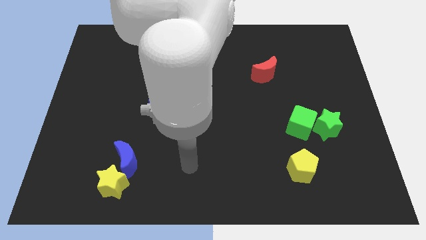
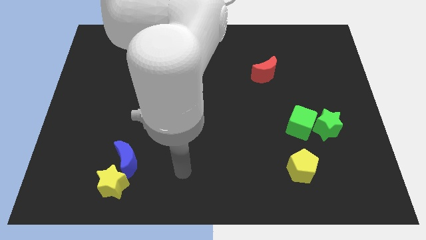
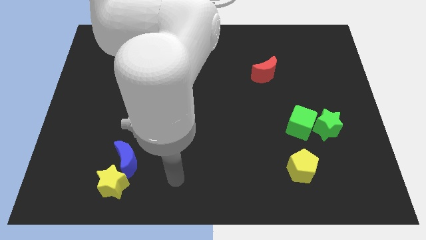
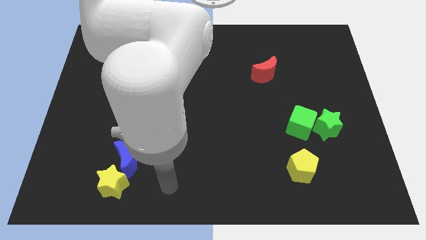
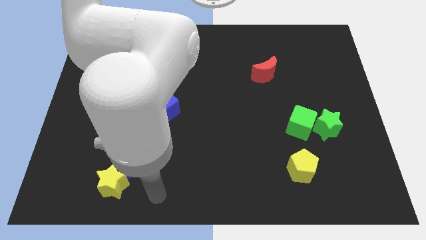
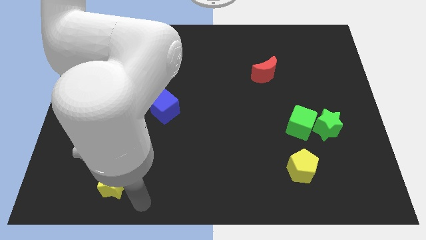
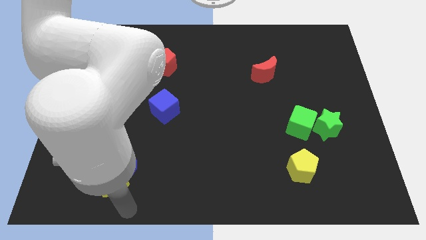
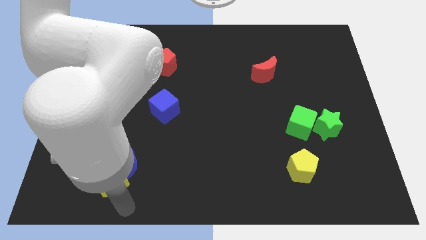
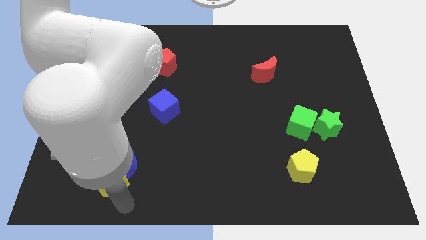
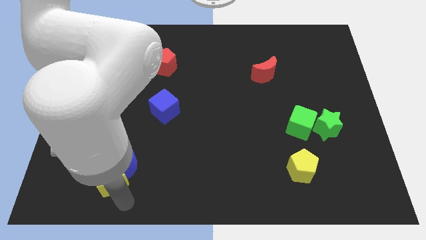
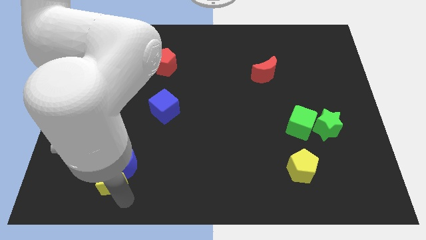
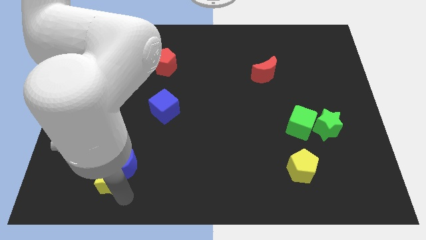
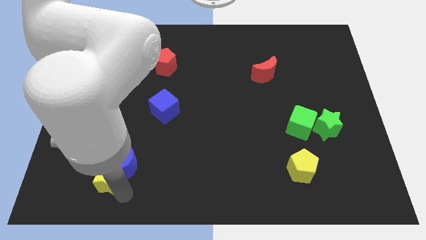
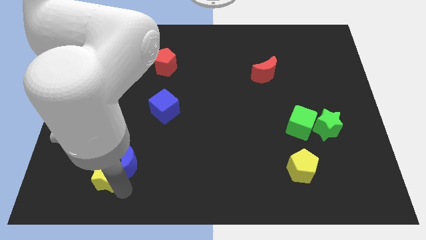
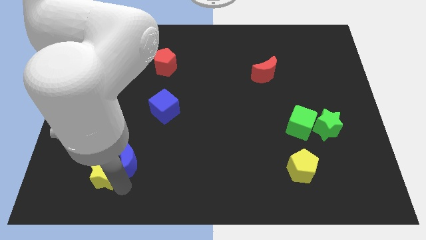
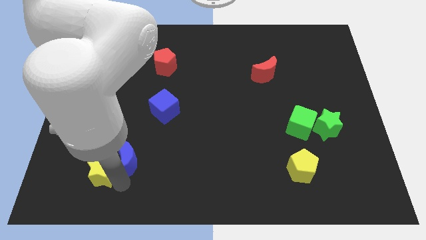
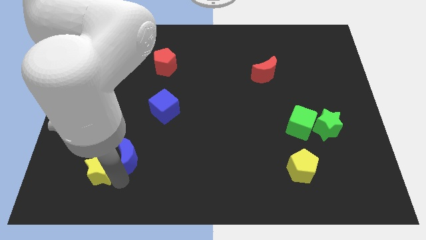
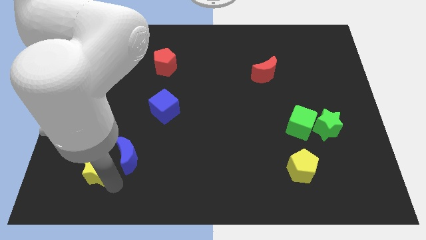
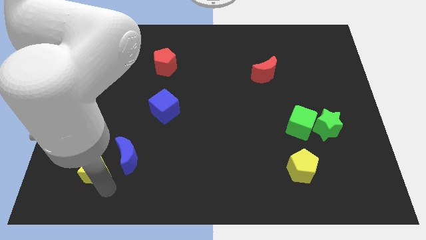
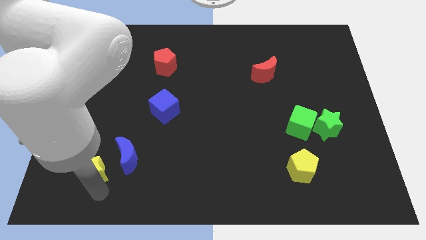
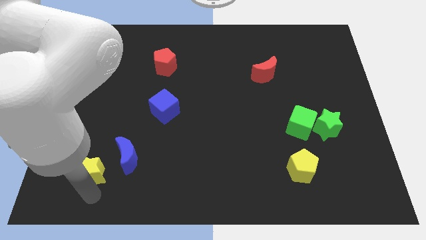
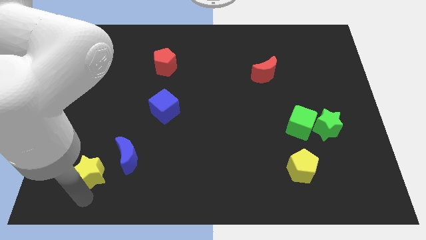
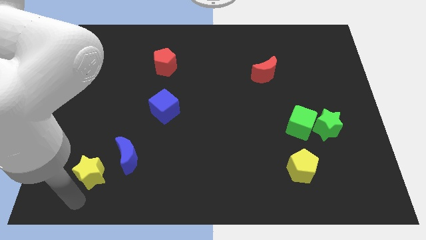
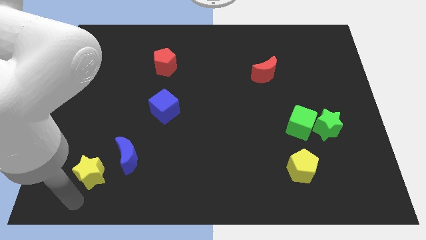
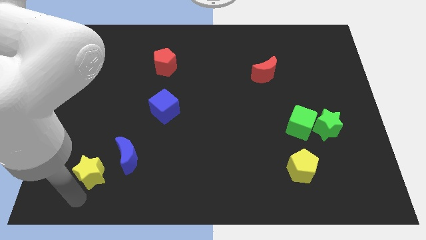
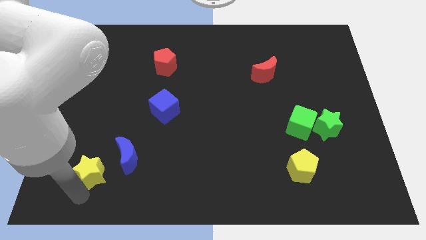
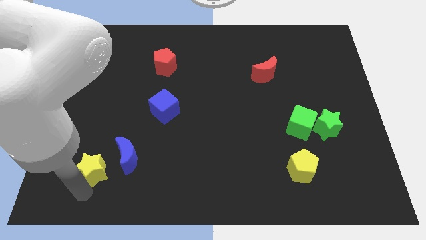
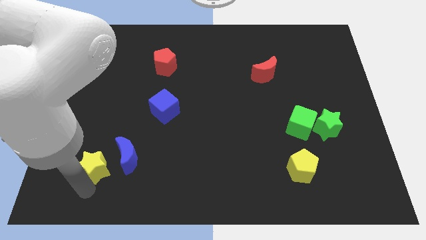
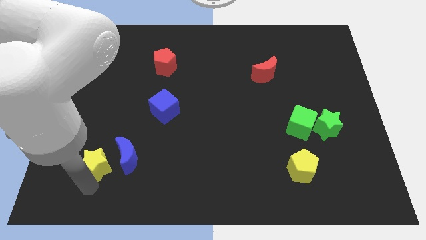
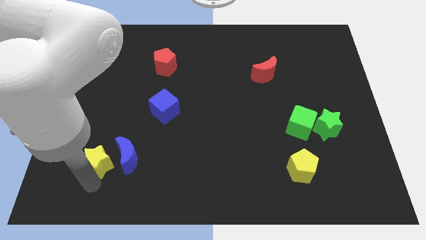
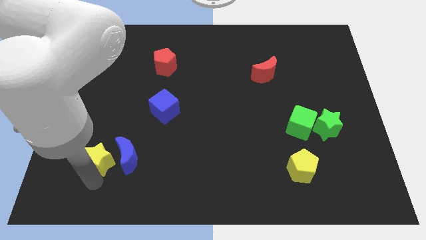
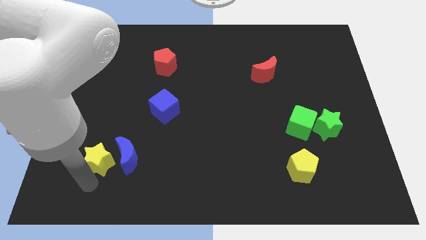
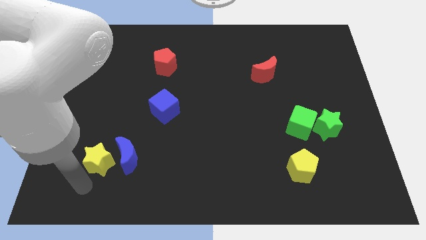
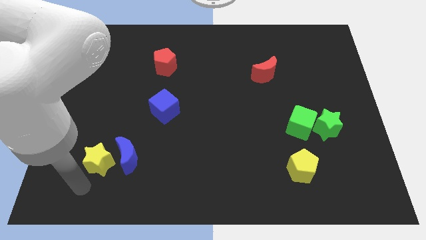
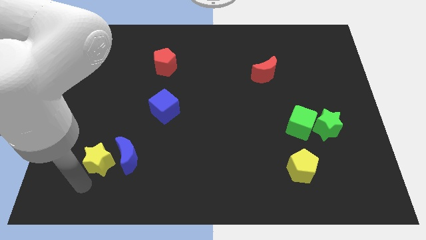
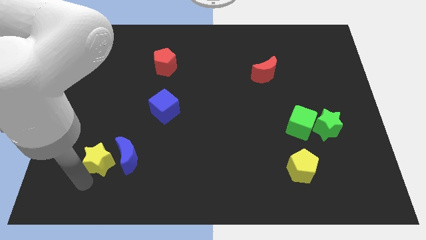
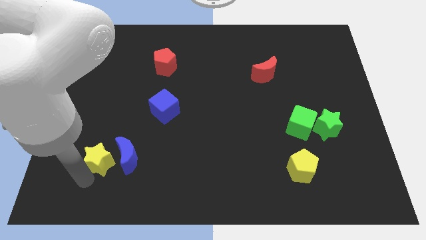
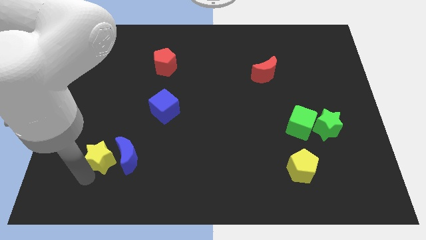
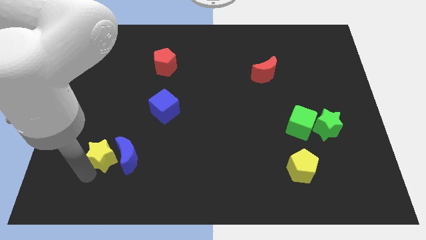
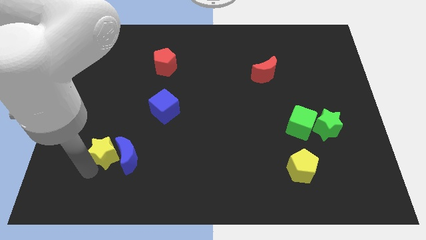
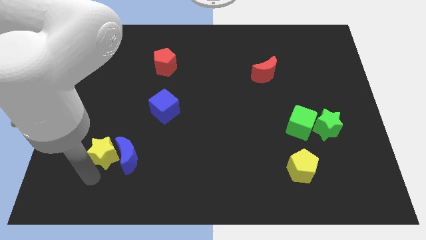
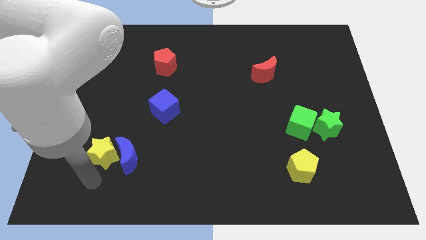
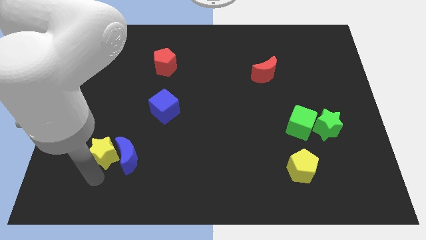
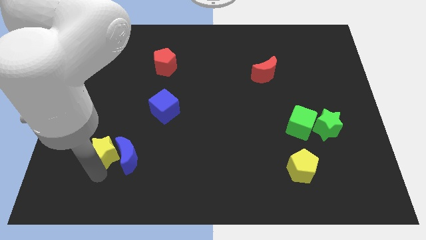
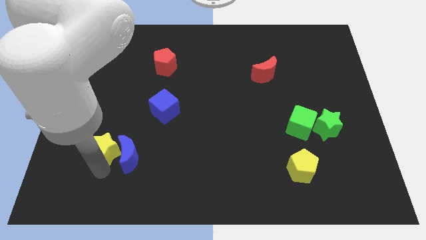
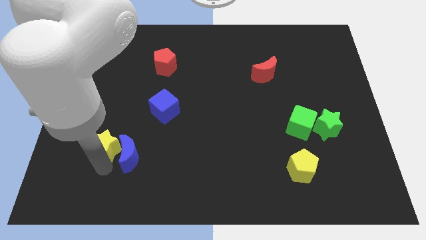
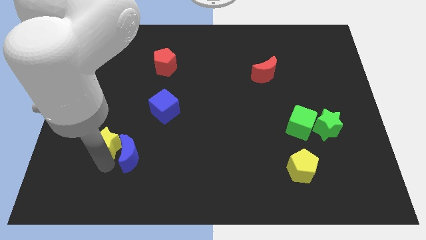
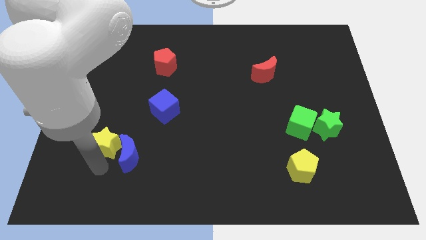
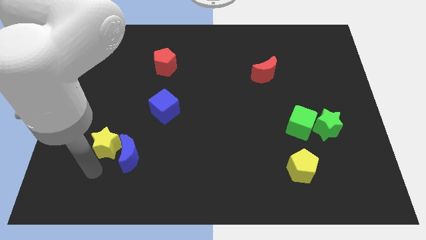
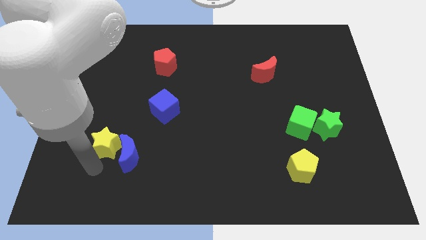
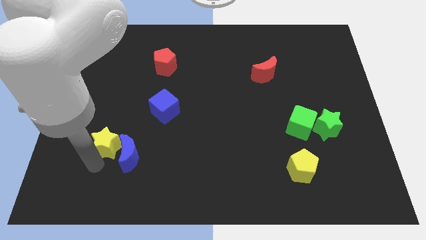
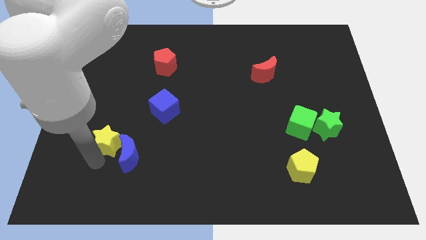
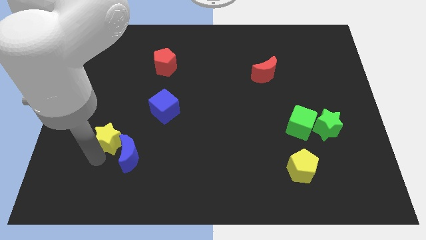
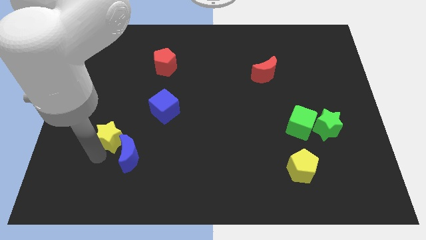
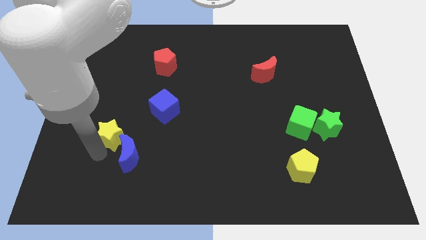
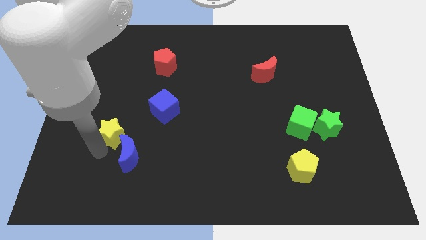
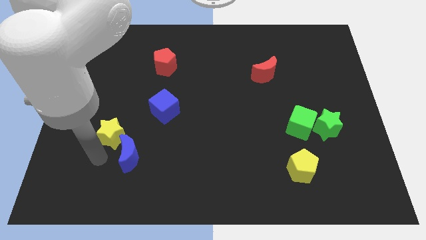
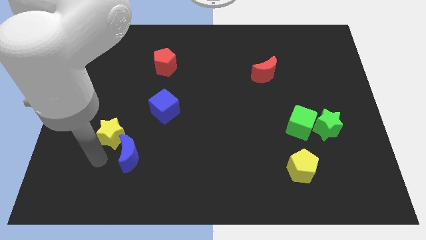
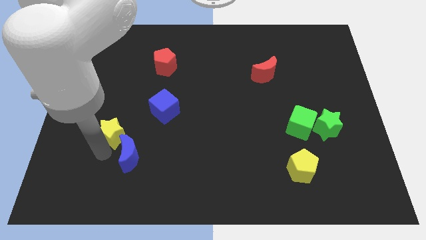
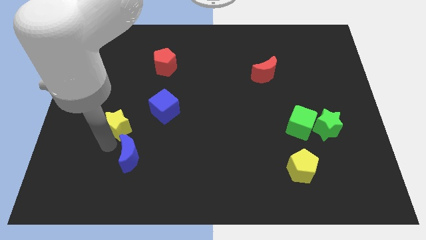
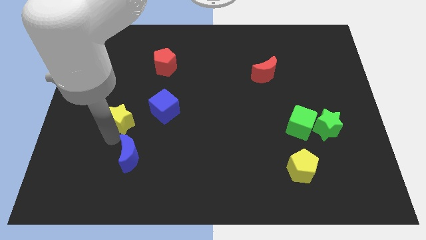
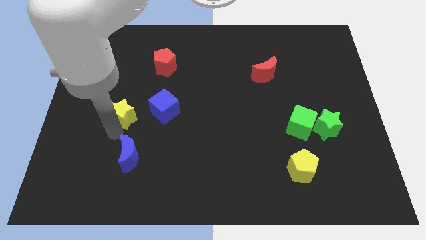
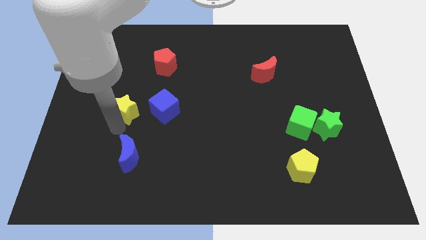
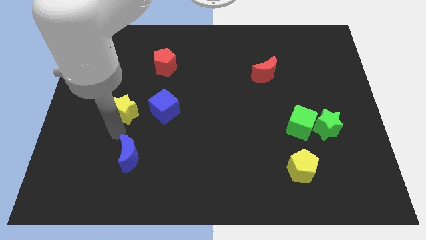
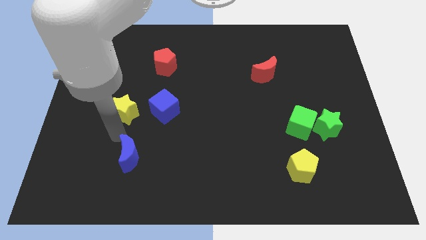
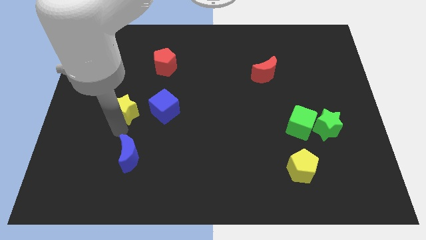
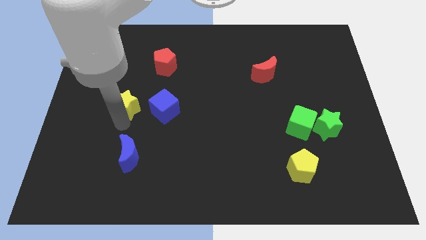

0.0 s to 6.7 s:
push the yellow star upwards

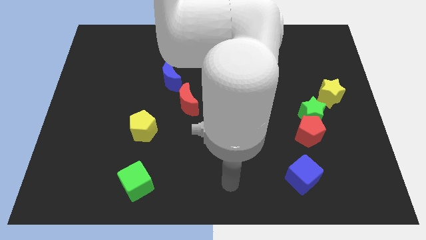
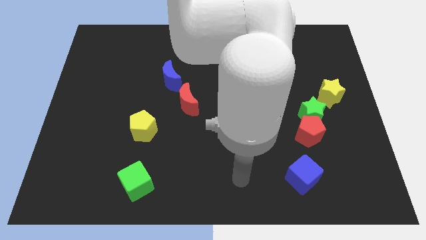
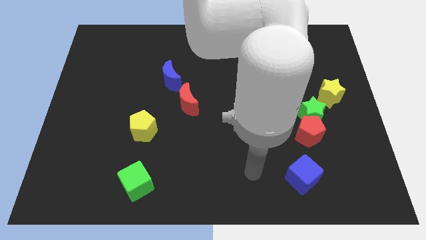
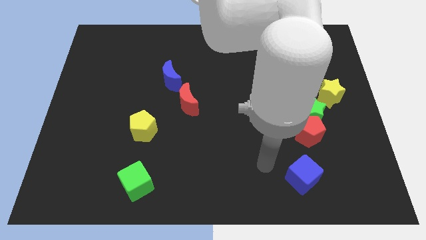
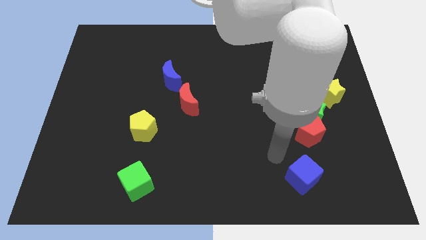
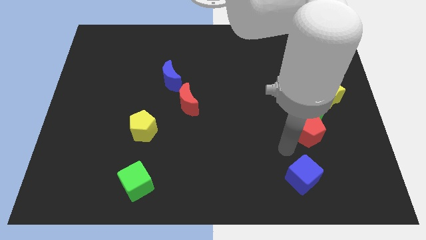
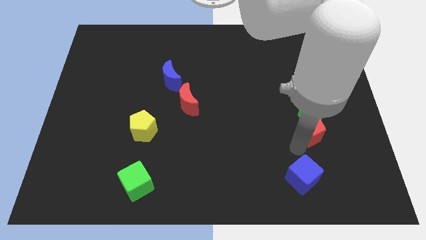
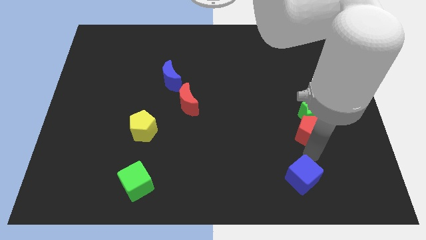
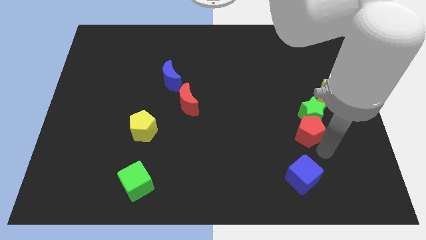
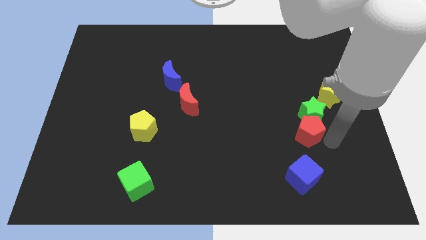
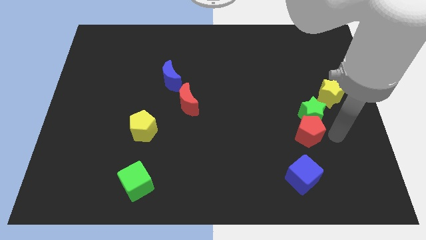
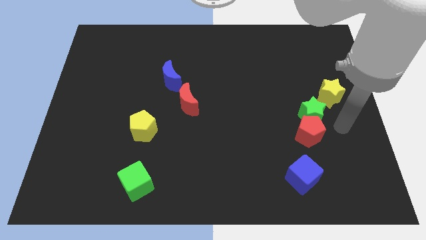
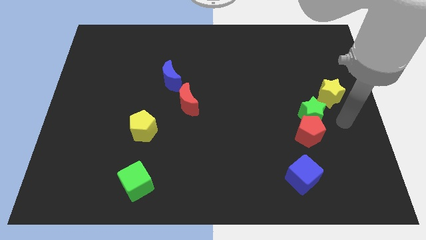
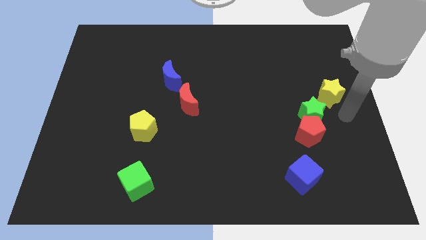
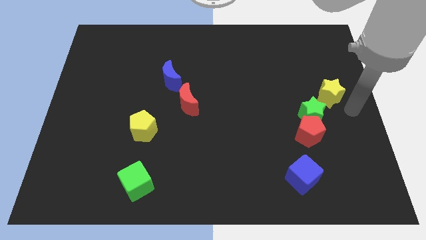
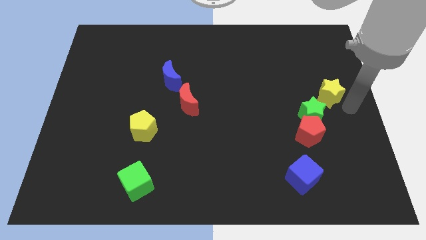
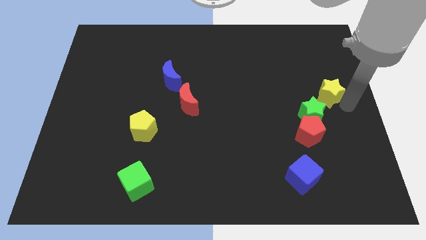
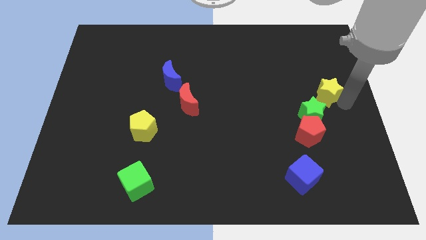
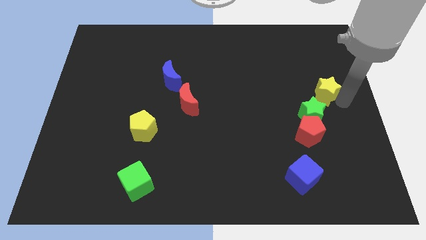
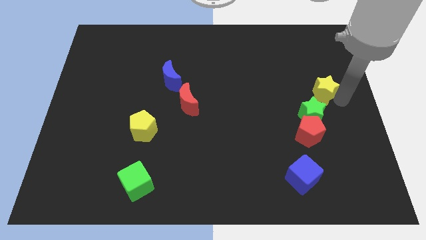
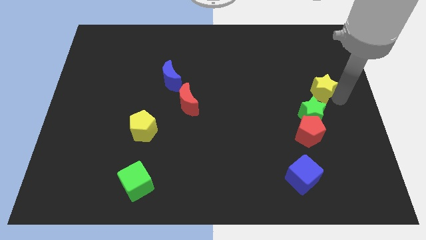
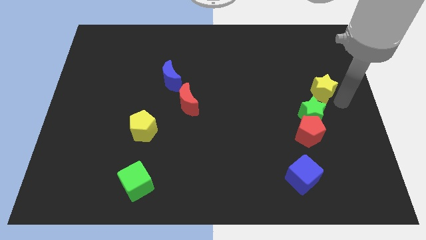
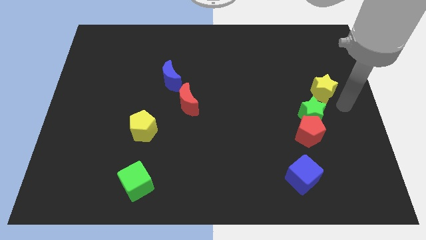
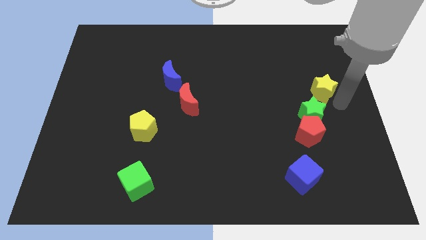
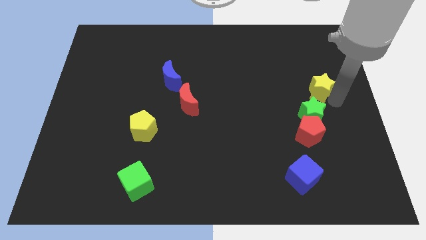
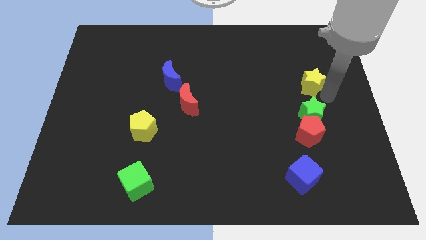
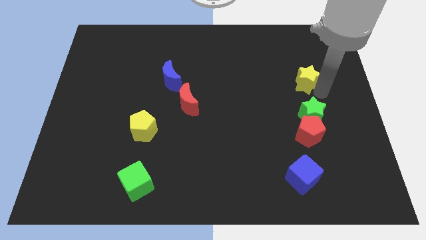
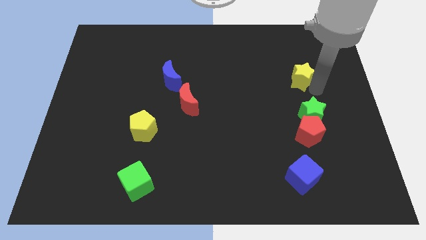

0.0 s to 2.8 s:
move the yellow star diagonally up and left slightly
